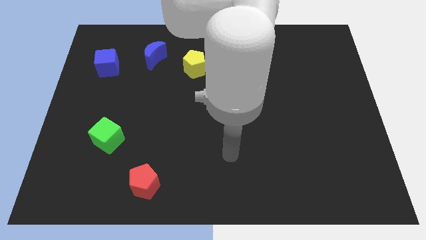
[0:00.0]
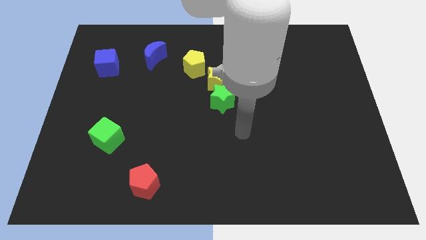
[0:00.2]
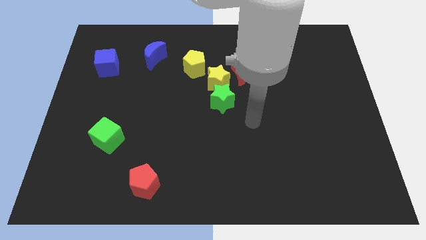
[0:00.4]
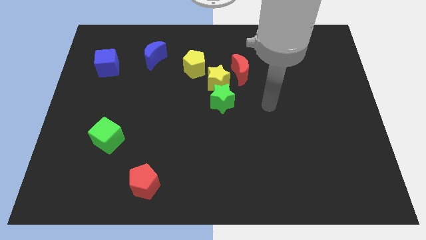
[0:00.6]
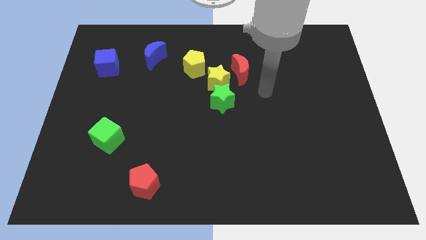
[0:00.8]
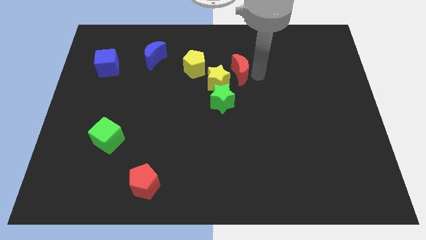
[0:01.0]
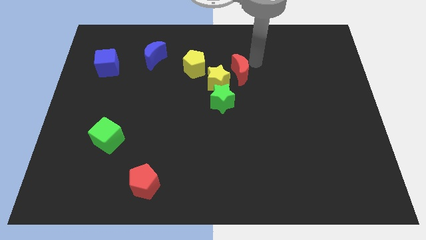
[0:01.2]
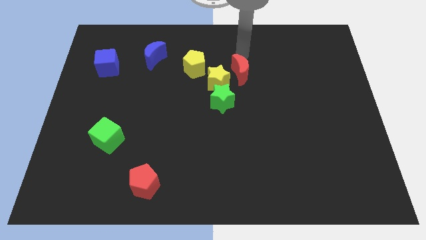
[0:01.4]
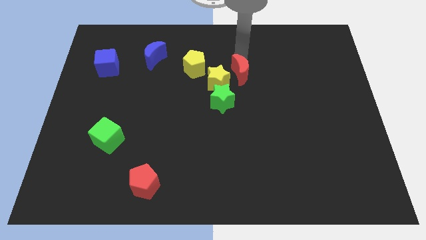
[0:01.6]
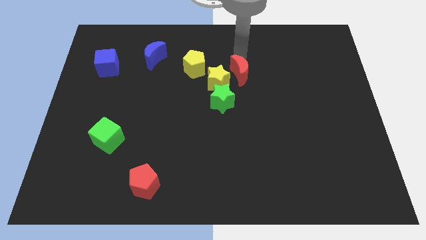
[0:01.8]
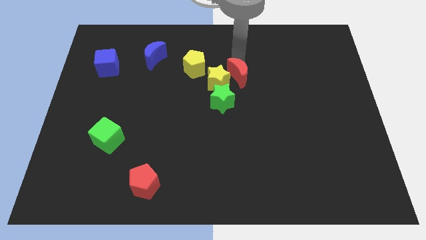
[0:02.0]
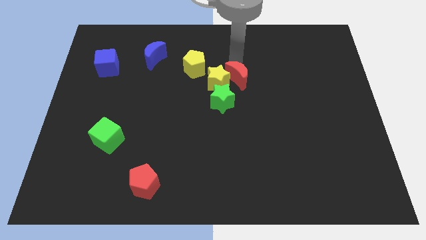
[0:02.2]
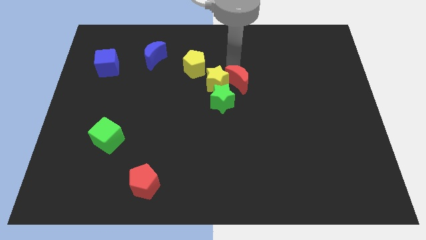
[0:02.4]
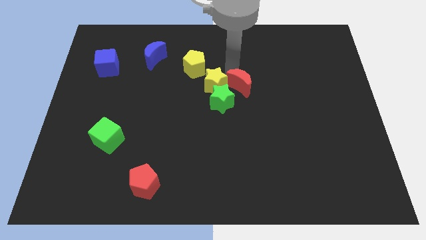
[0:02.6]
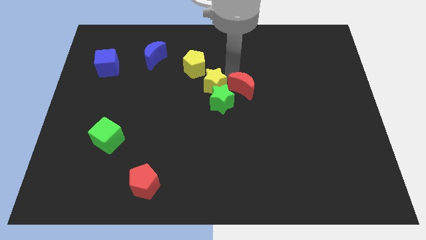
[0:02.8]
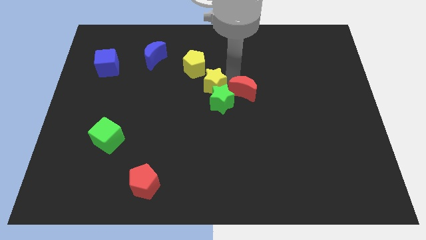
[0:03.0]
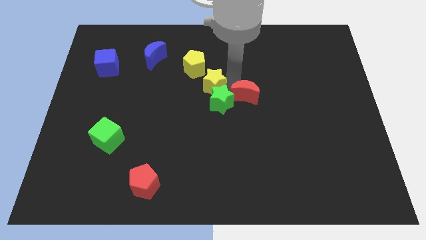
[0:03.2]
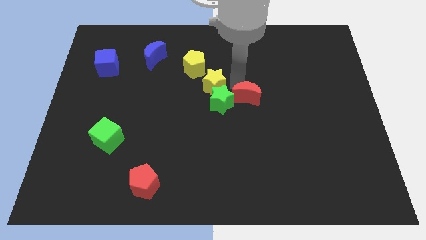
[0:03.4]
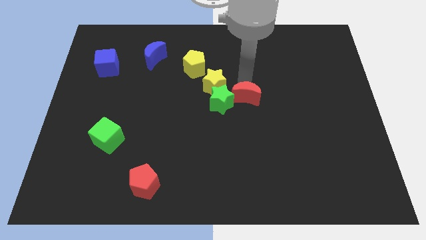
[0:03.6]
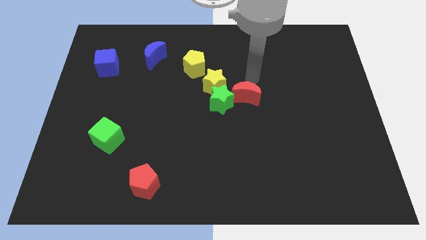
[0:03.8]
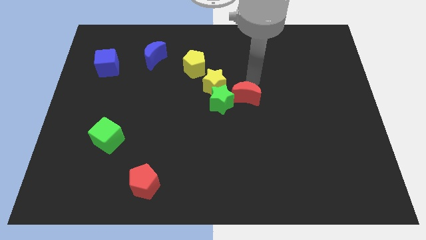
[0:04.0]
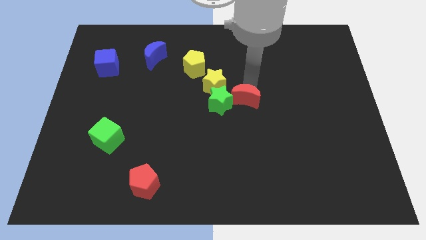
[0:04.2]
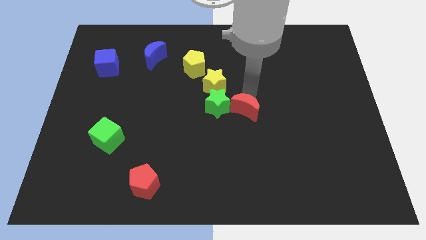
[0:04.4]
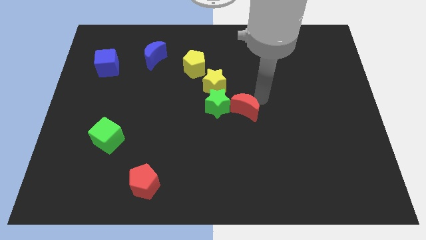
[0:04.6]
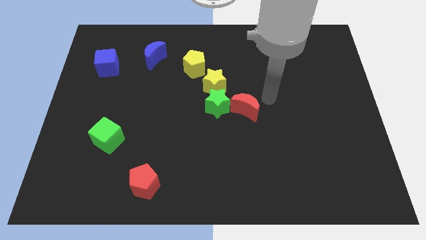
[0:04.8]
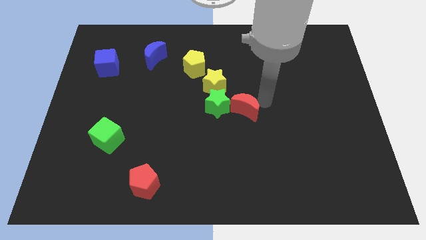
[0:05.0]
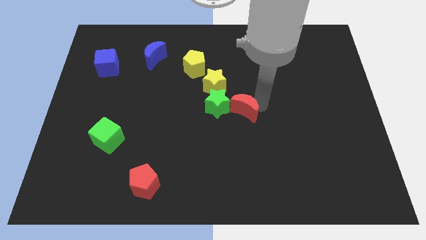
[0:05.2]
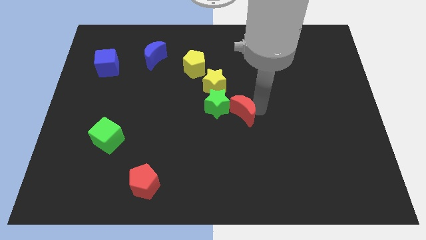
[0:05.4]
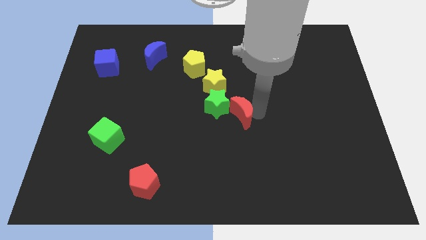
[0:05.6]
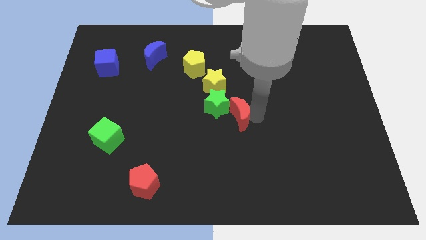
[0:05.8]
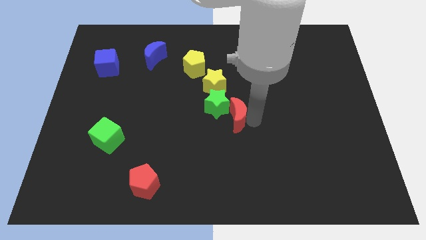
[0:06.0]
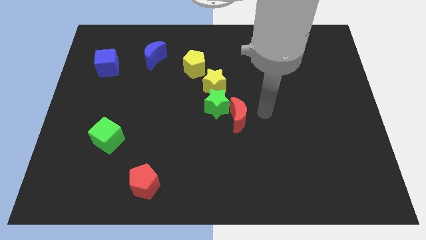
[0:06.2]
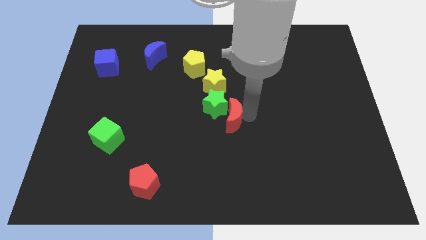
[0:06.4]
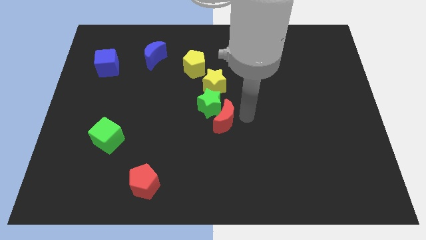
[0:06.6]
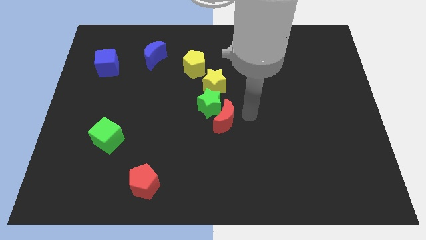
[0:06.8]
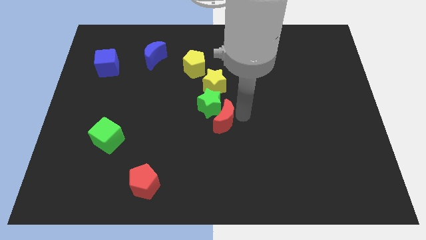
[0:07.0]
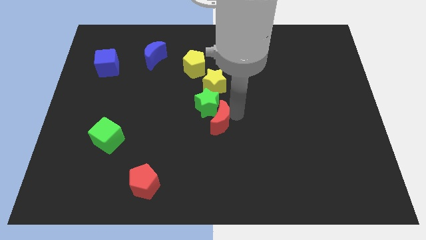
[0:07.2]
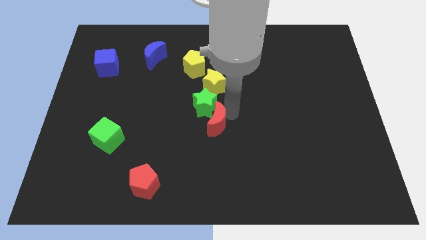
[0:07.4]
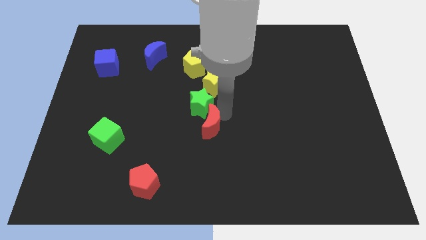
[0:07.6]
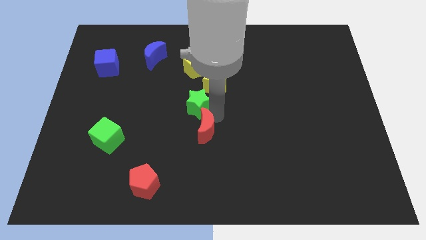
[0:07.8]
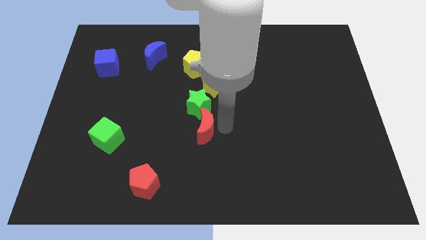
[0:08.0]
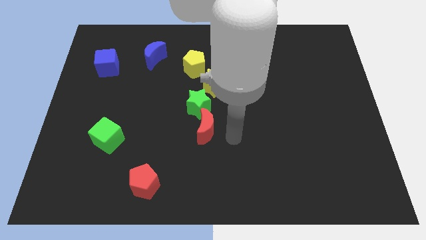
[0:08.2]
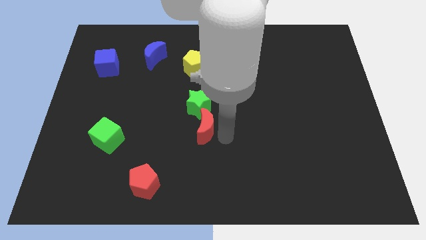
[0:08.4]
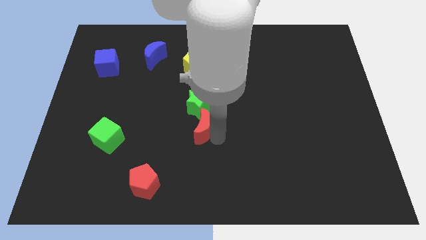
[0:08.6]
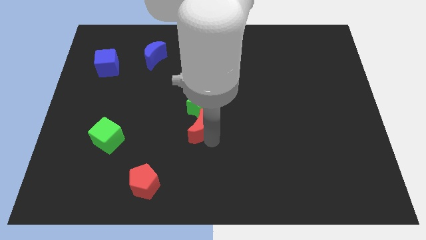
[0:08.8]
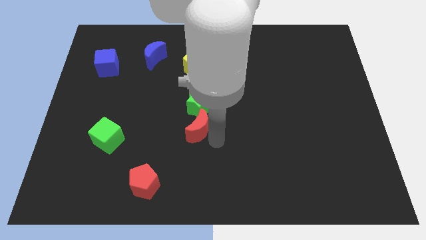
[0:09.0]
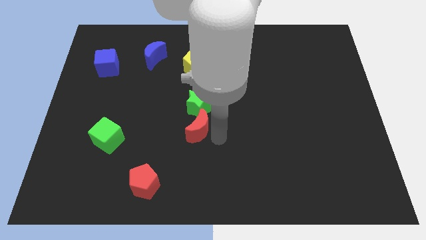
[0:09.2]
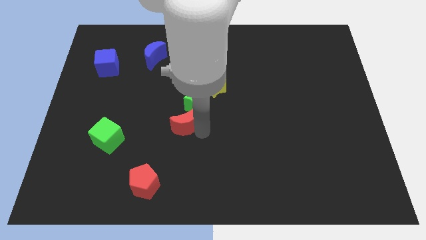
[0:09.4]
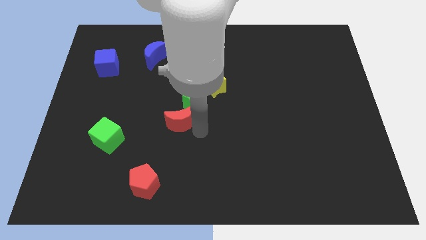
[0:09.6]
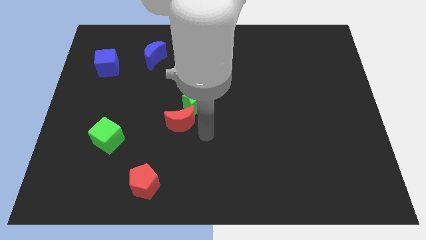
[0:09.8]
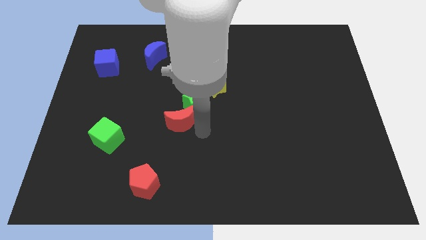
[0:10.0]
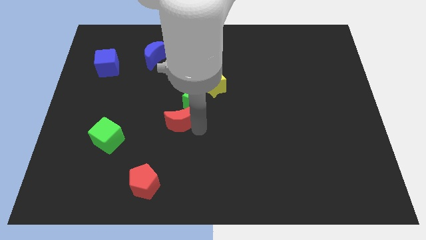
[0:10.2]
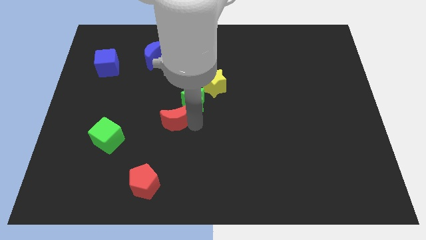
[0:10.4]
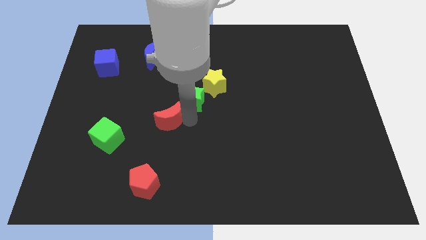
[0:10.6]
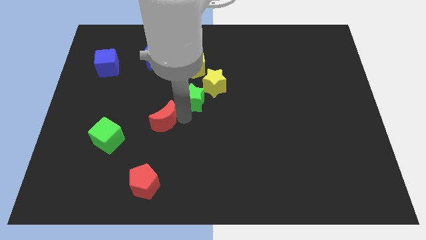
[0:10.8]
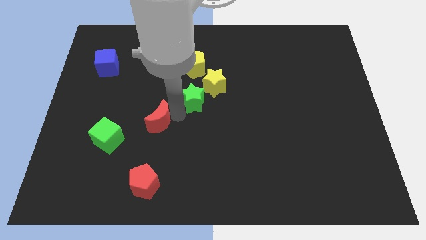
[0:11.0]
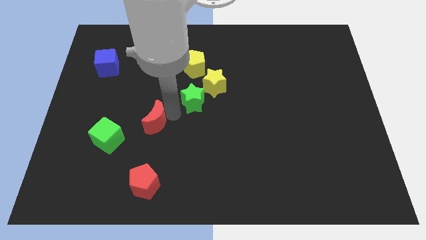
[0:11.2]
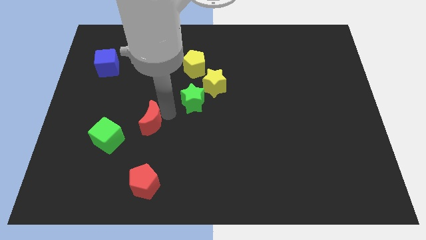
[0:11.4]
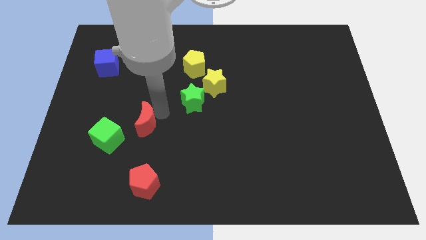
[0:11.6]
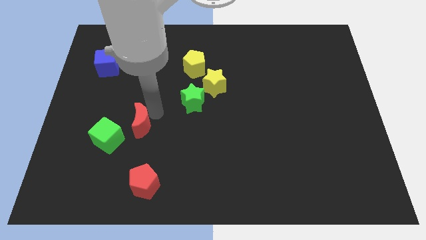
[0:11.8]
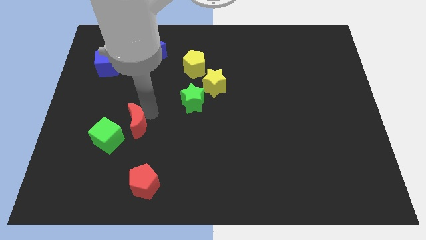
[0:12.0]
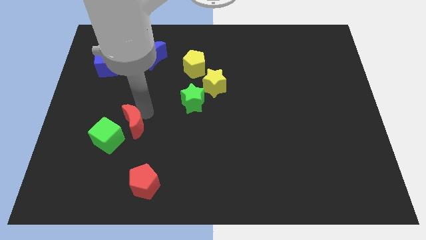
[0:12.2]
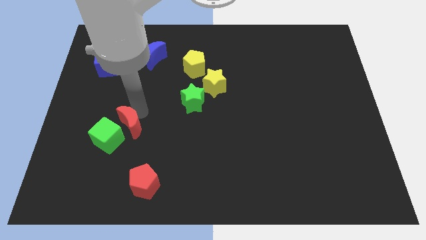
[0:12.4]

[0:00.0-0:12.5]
move the red moon next to the green cube

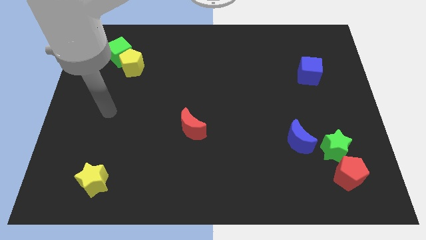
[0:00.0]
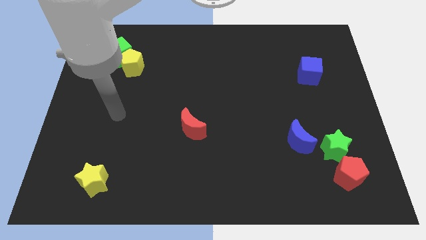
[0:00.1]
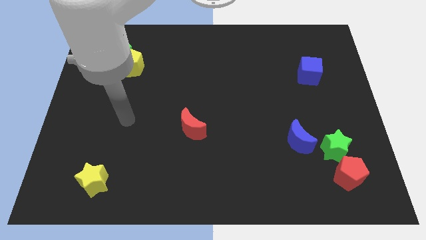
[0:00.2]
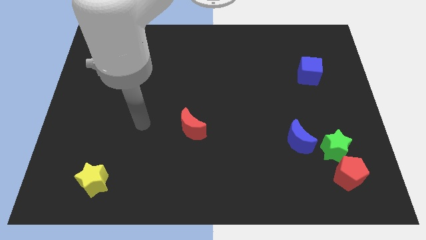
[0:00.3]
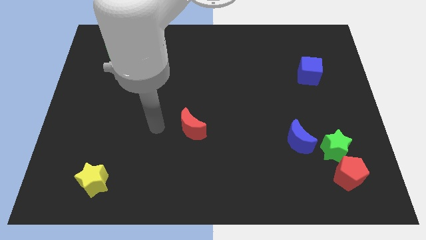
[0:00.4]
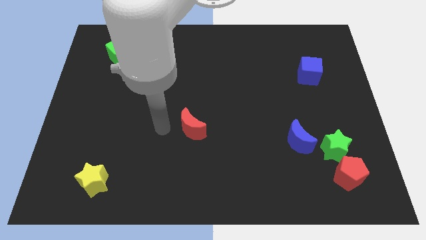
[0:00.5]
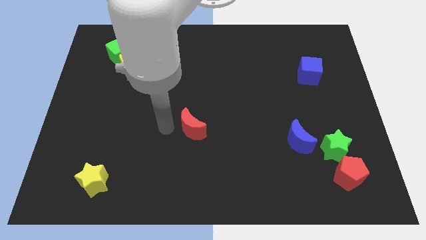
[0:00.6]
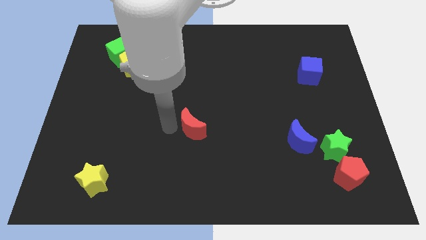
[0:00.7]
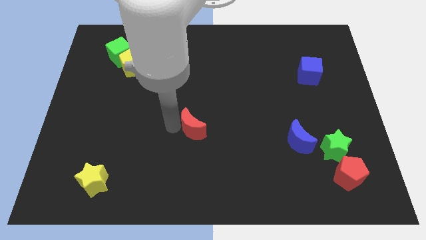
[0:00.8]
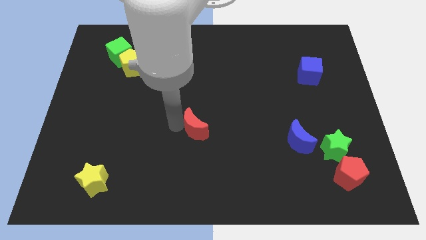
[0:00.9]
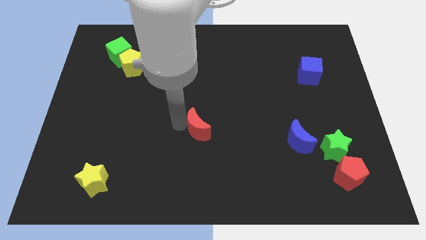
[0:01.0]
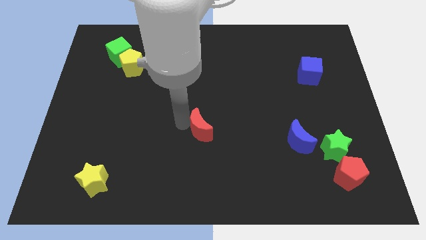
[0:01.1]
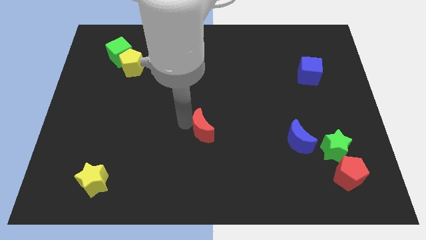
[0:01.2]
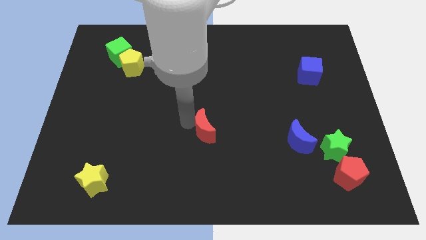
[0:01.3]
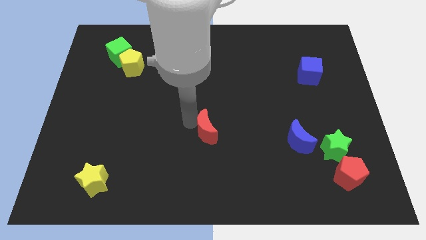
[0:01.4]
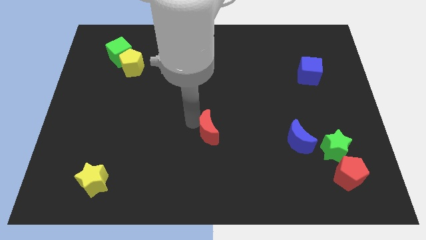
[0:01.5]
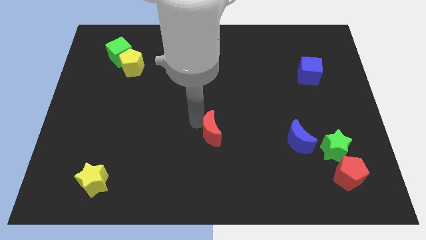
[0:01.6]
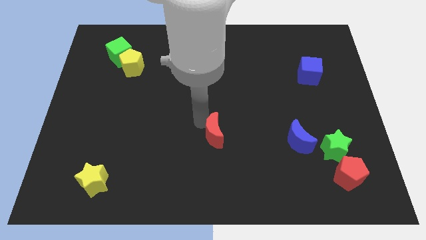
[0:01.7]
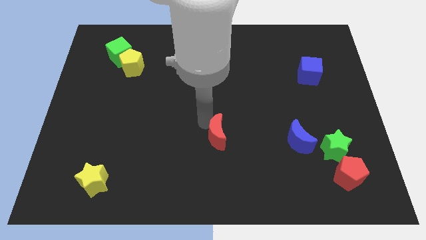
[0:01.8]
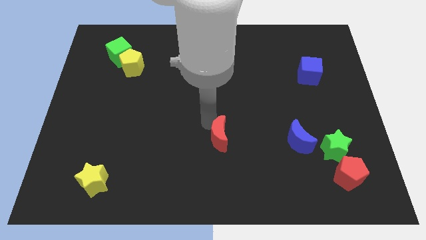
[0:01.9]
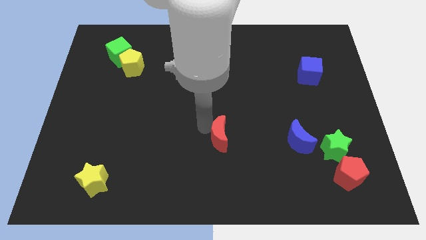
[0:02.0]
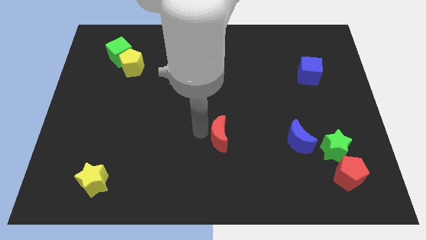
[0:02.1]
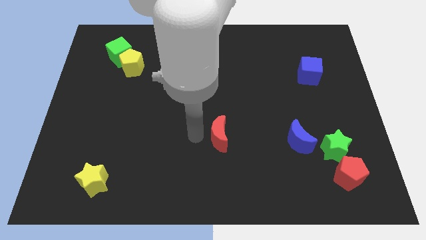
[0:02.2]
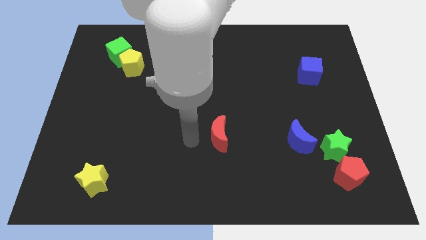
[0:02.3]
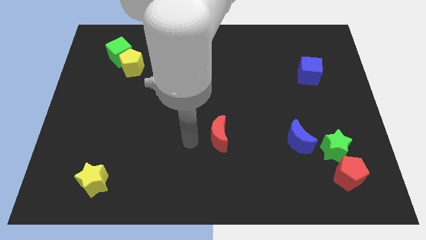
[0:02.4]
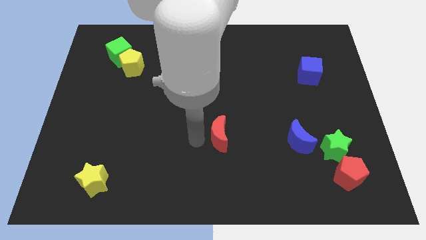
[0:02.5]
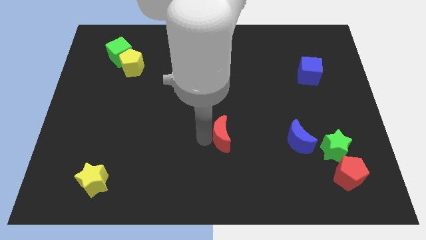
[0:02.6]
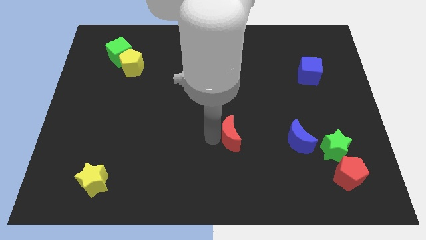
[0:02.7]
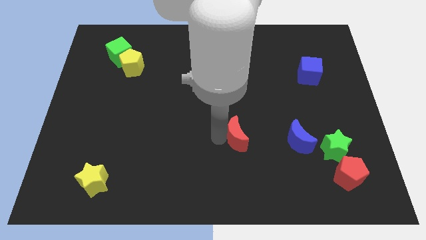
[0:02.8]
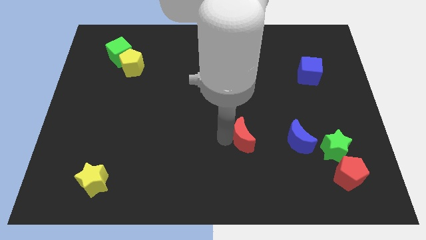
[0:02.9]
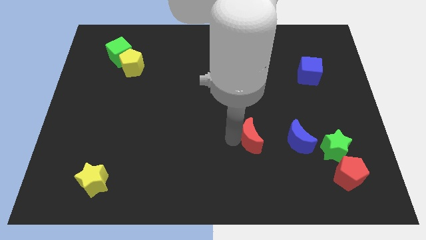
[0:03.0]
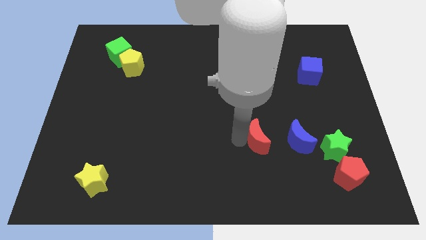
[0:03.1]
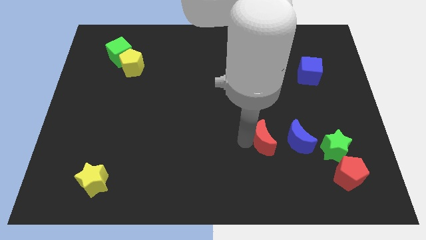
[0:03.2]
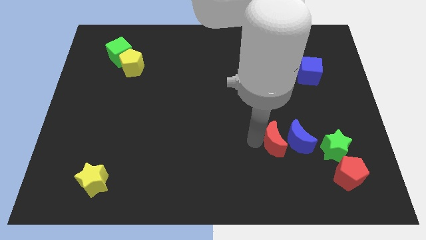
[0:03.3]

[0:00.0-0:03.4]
put the red moon next to the blue moon
